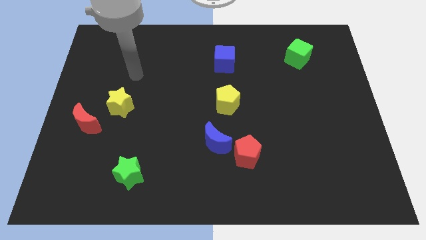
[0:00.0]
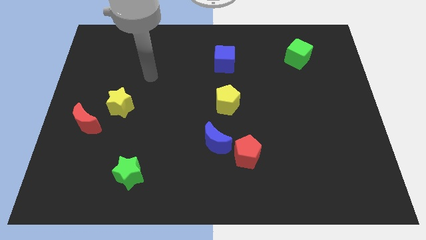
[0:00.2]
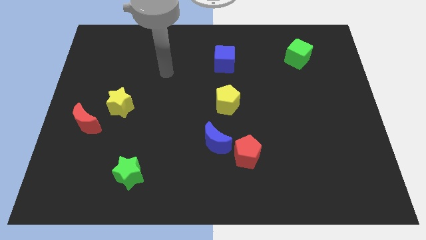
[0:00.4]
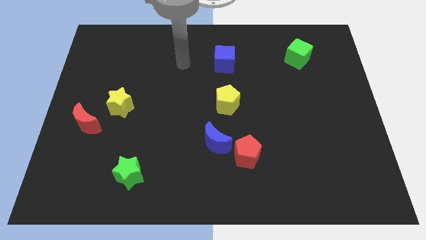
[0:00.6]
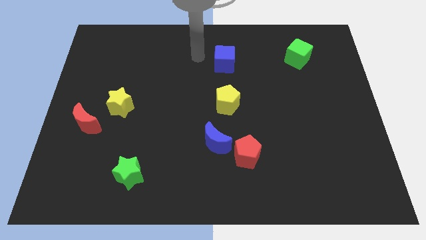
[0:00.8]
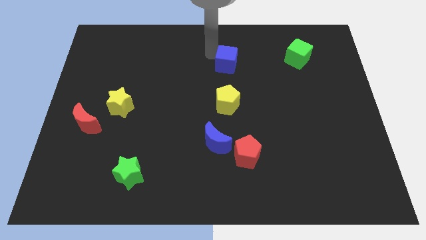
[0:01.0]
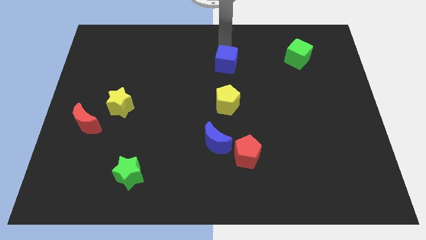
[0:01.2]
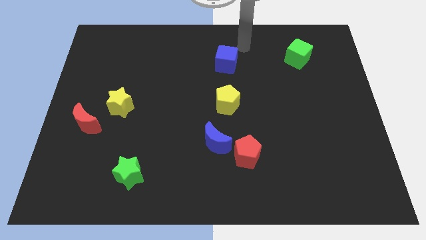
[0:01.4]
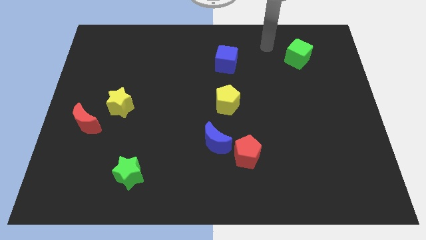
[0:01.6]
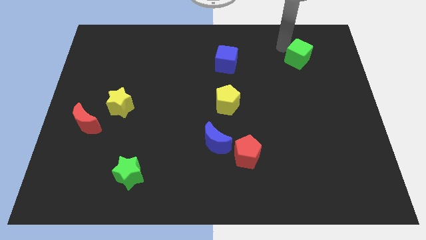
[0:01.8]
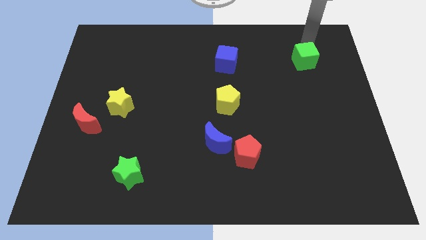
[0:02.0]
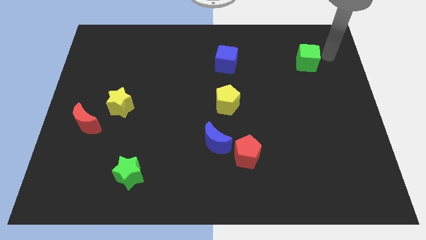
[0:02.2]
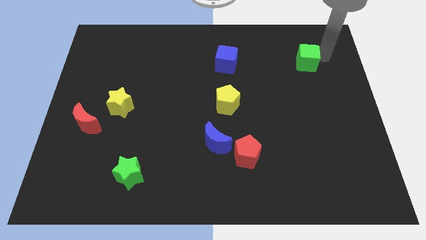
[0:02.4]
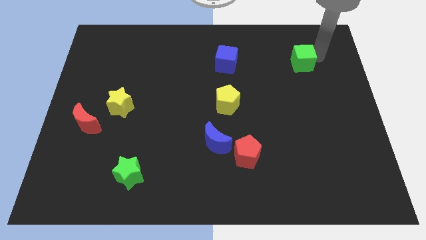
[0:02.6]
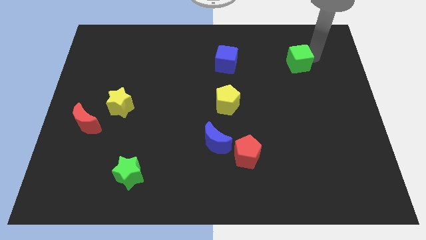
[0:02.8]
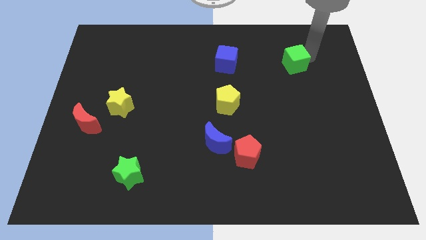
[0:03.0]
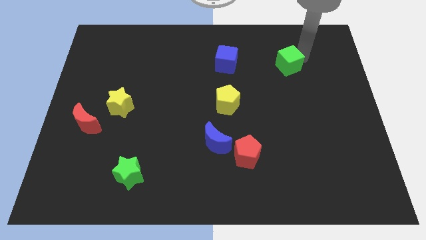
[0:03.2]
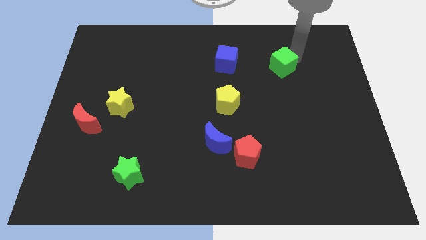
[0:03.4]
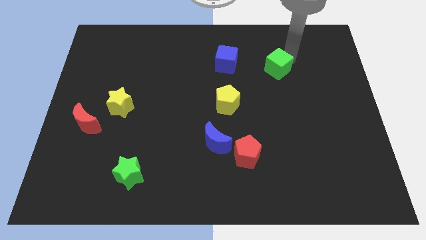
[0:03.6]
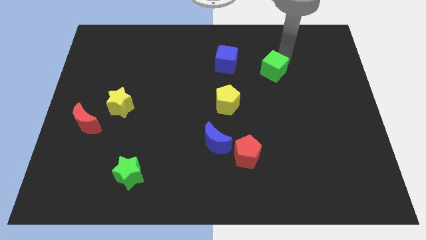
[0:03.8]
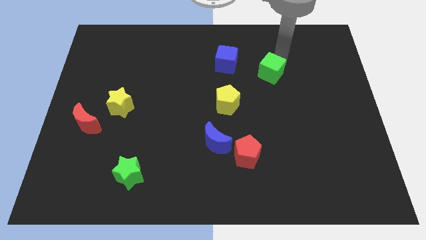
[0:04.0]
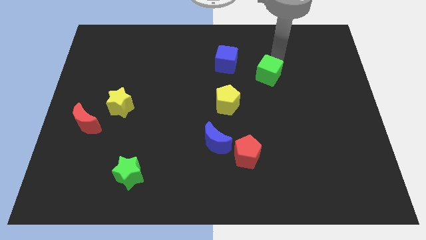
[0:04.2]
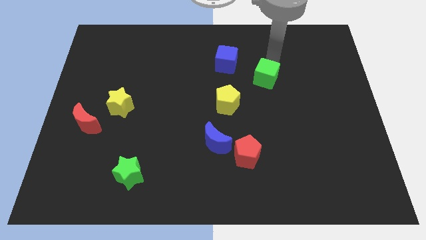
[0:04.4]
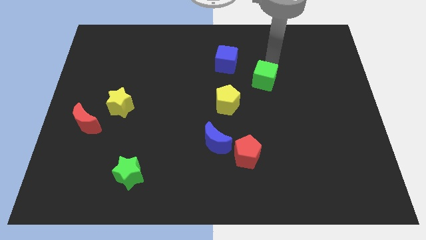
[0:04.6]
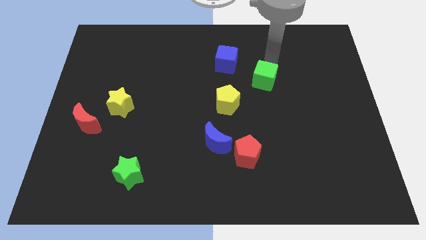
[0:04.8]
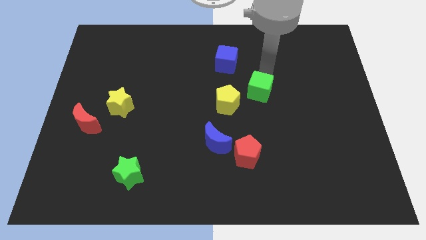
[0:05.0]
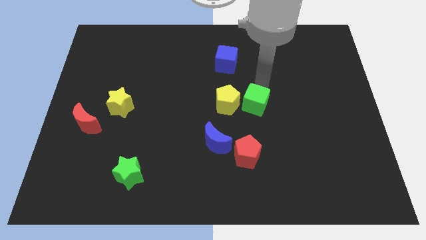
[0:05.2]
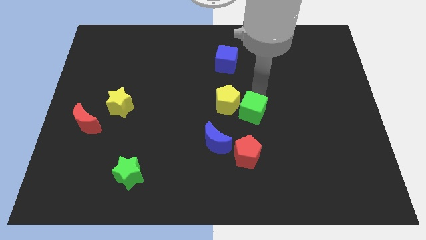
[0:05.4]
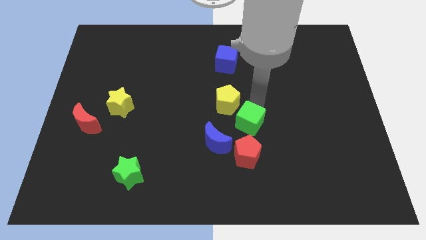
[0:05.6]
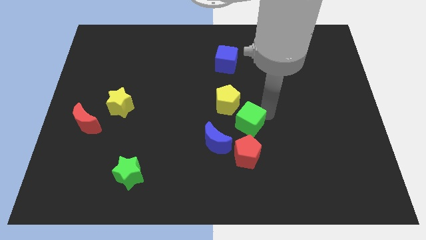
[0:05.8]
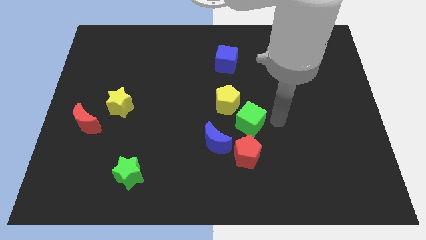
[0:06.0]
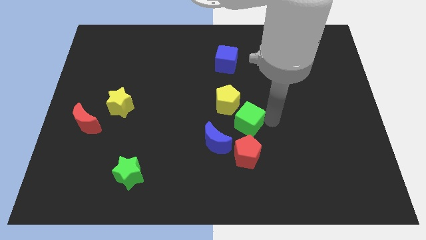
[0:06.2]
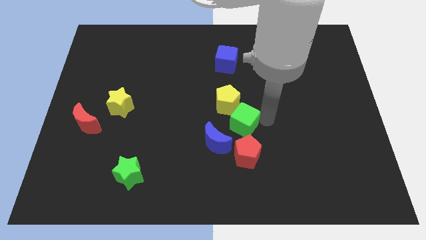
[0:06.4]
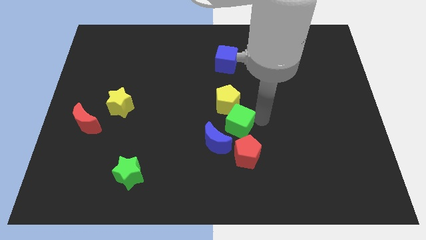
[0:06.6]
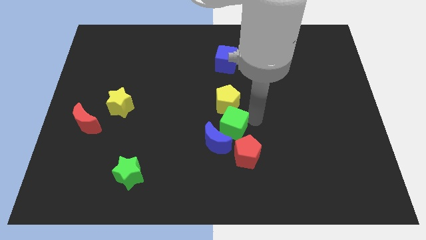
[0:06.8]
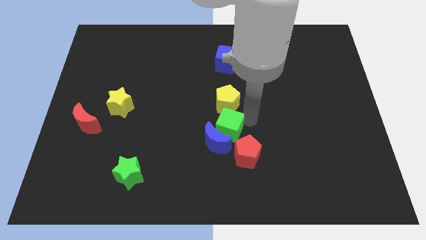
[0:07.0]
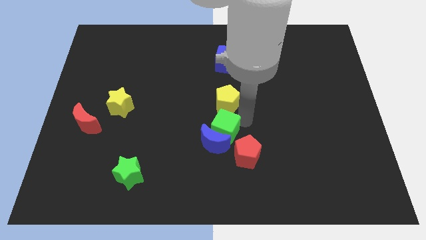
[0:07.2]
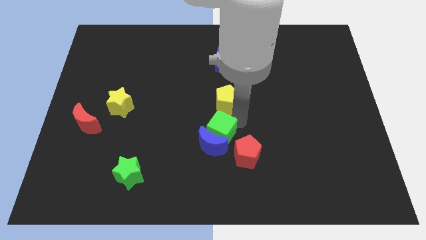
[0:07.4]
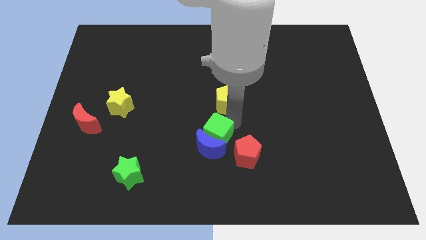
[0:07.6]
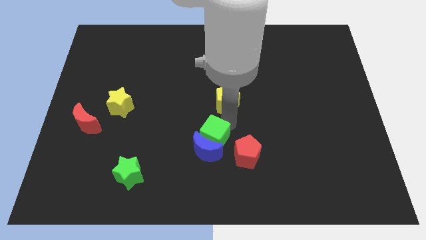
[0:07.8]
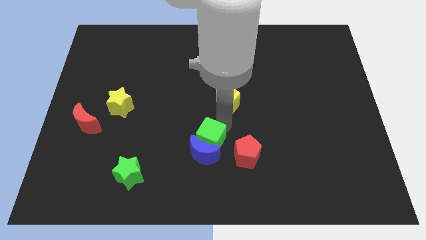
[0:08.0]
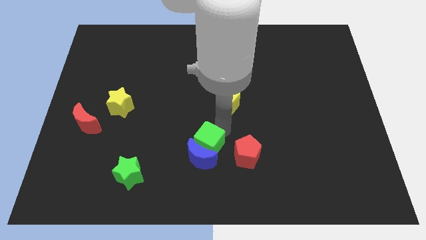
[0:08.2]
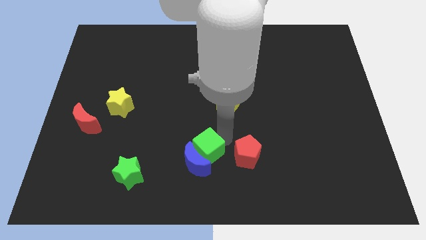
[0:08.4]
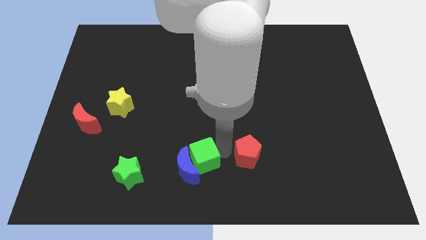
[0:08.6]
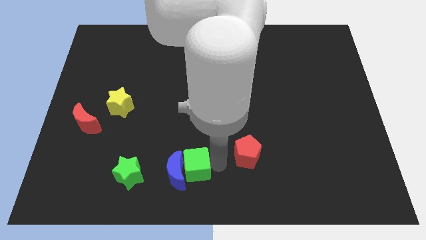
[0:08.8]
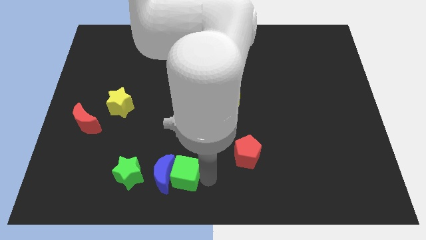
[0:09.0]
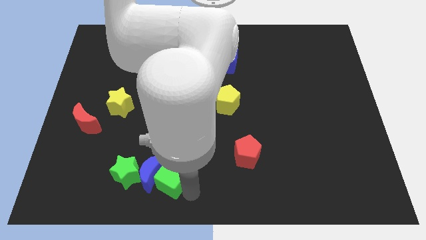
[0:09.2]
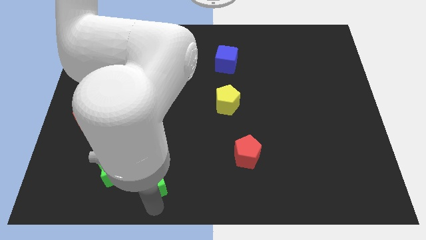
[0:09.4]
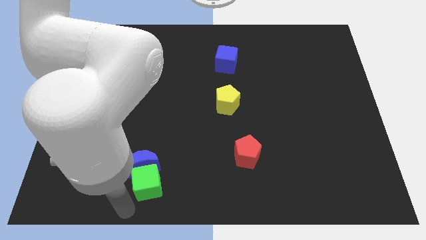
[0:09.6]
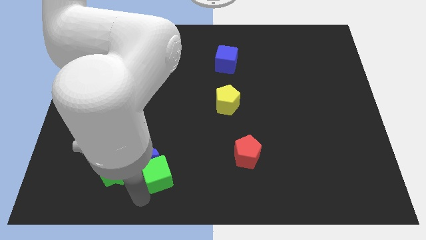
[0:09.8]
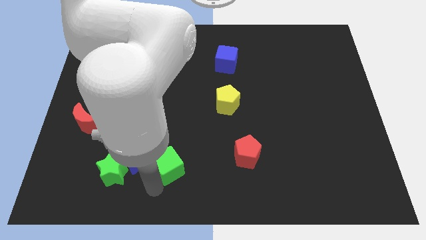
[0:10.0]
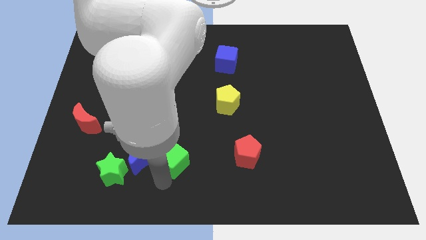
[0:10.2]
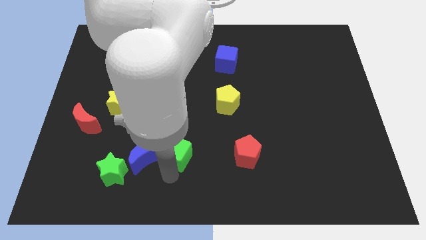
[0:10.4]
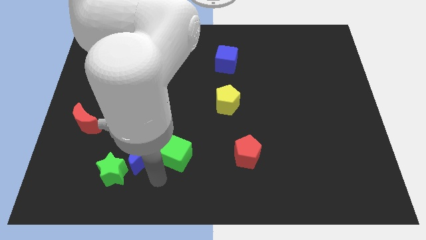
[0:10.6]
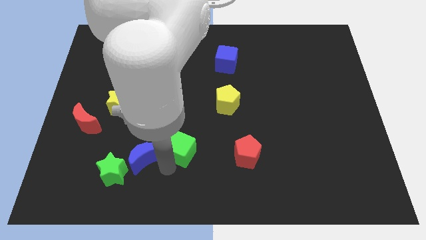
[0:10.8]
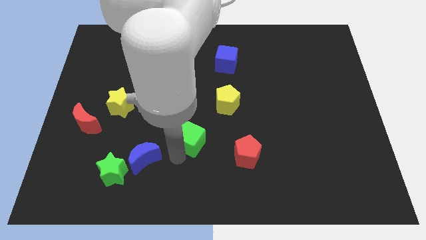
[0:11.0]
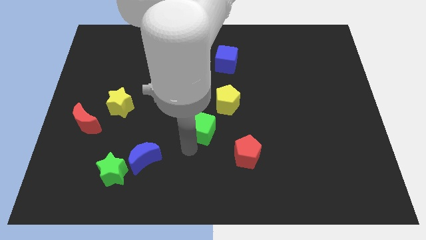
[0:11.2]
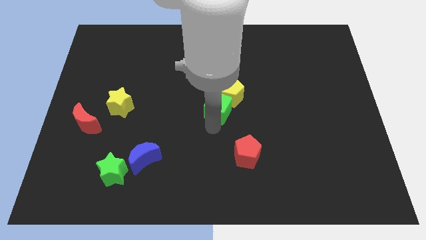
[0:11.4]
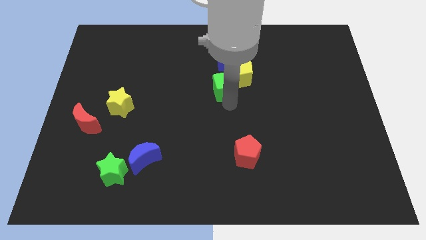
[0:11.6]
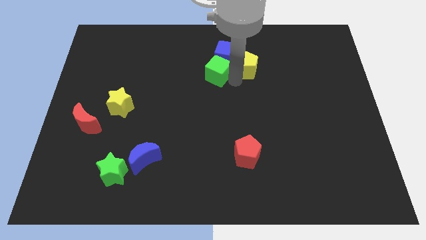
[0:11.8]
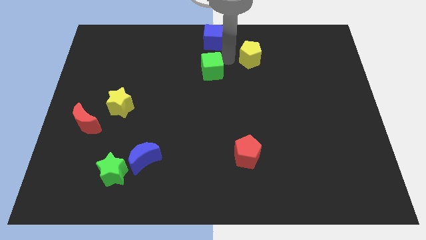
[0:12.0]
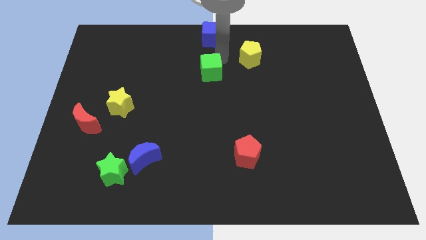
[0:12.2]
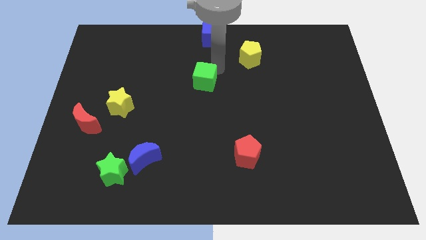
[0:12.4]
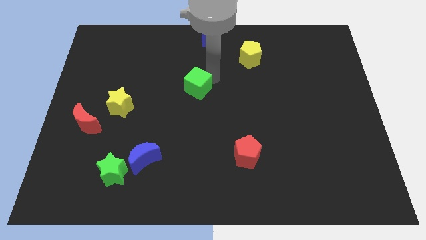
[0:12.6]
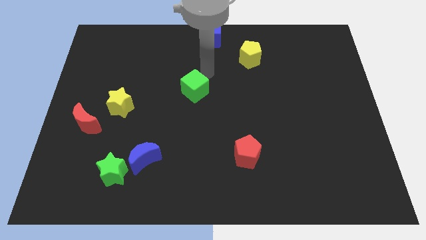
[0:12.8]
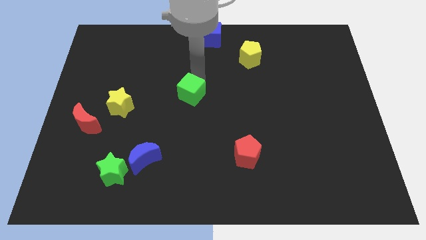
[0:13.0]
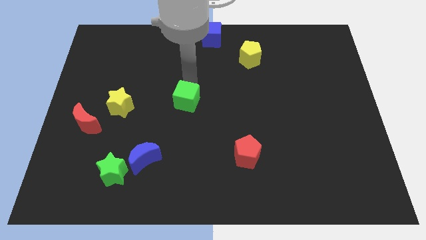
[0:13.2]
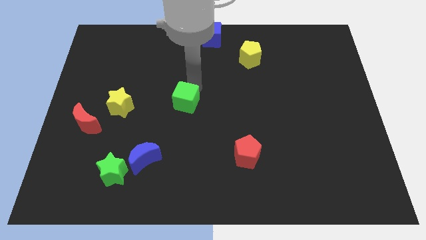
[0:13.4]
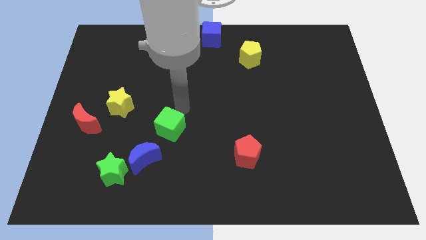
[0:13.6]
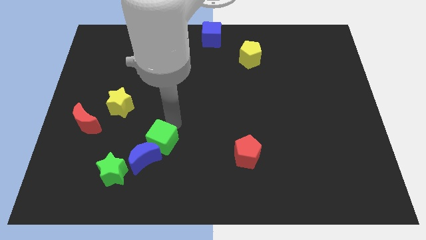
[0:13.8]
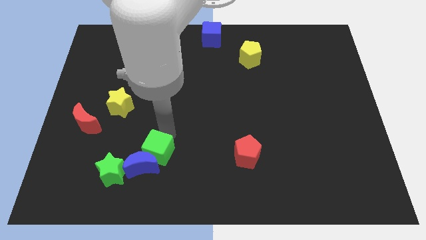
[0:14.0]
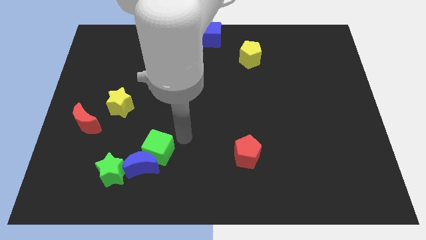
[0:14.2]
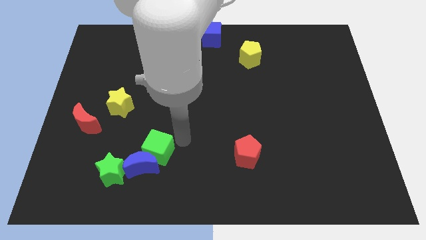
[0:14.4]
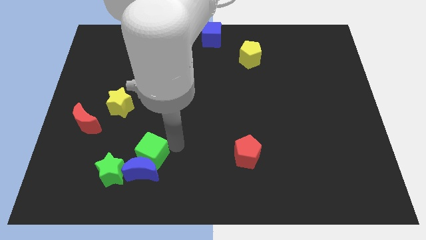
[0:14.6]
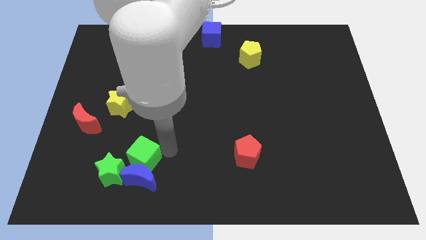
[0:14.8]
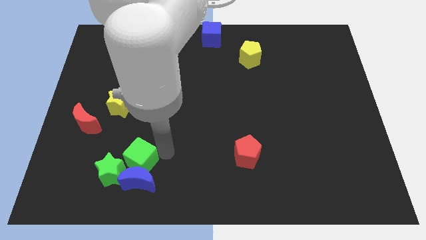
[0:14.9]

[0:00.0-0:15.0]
slide the green cube to the green star
